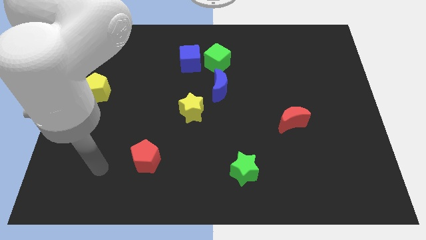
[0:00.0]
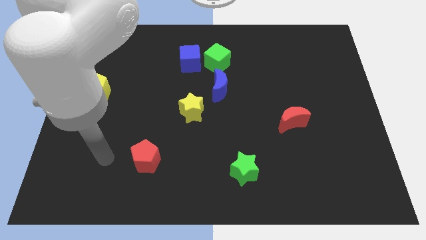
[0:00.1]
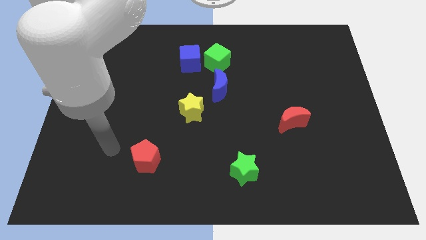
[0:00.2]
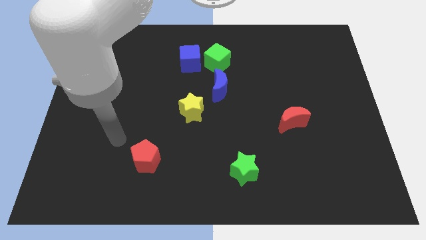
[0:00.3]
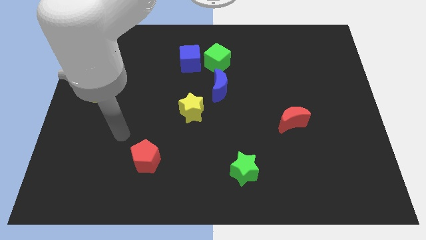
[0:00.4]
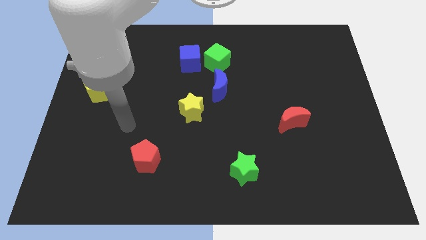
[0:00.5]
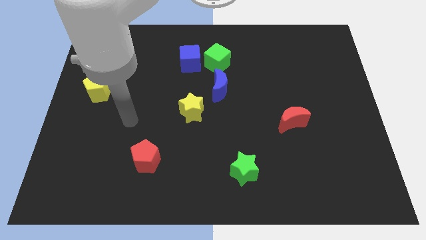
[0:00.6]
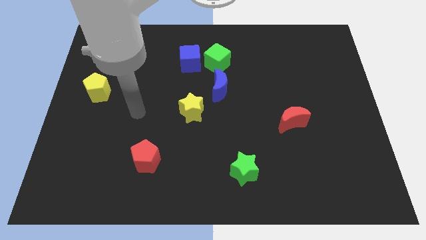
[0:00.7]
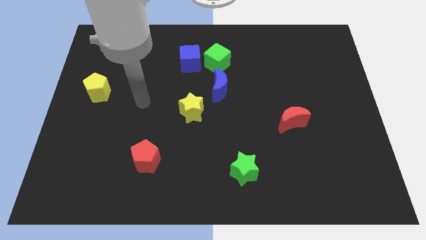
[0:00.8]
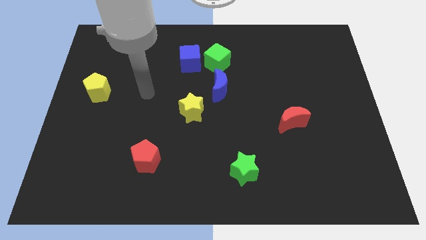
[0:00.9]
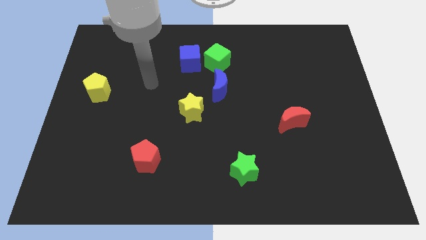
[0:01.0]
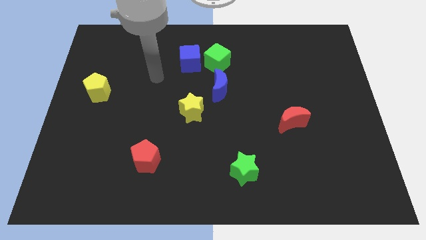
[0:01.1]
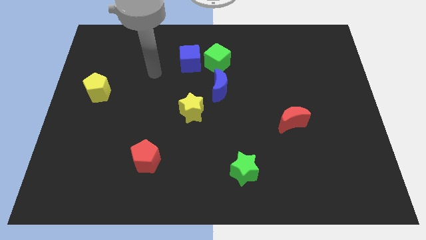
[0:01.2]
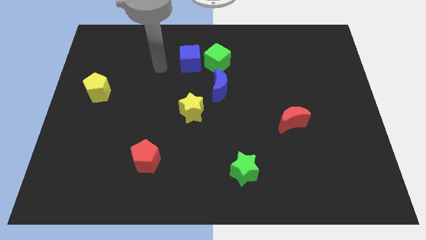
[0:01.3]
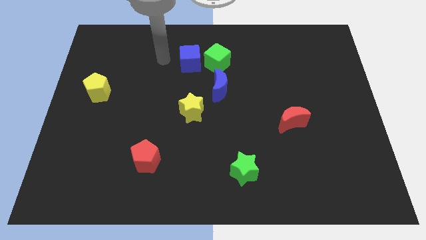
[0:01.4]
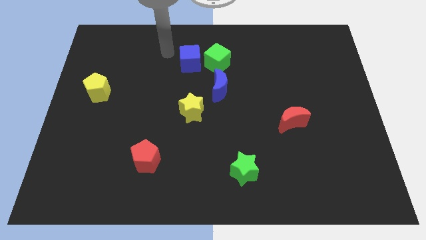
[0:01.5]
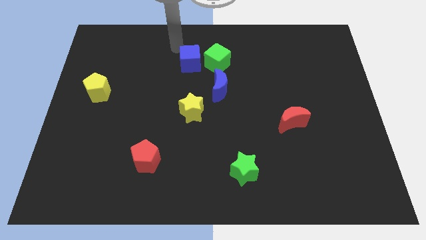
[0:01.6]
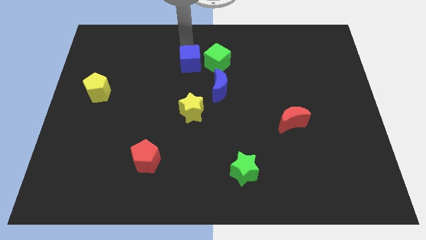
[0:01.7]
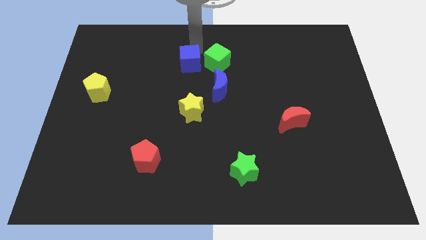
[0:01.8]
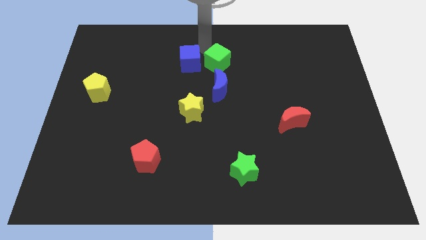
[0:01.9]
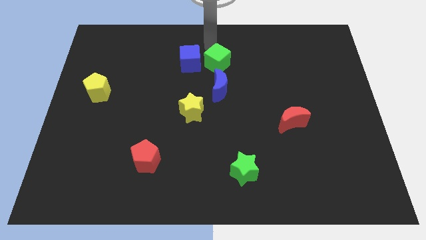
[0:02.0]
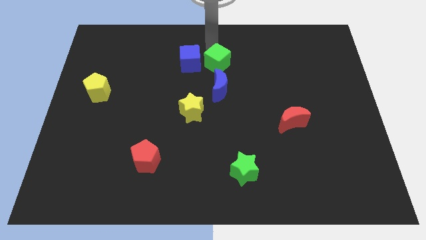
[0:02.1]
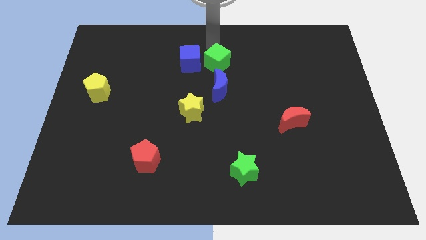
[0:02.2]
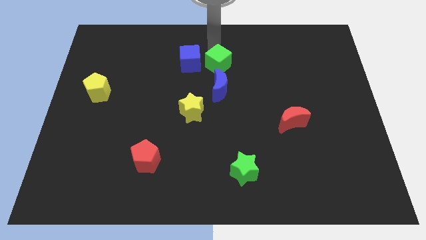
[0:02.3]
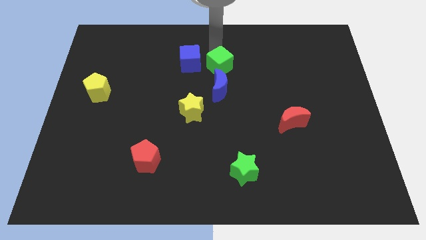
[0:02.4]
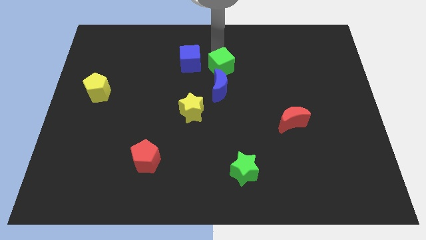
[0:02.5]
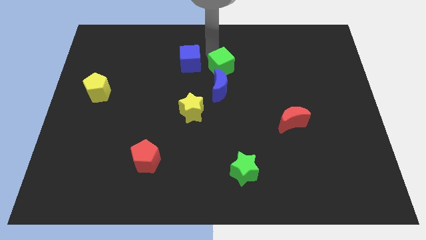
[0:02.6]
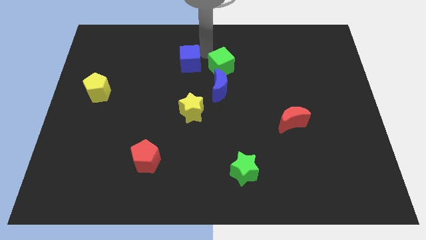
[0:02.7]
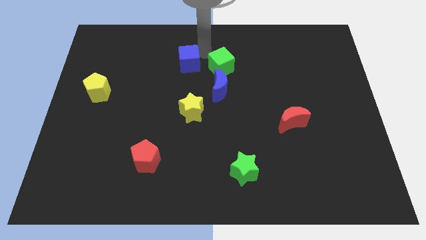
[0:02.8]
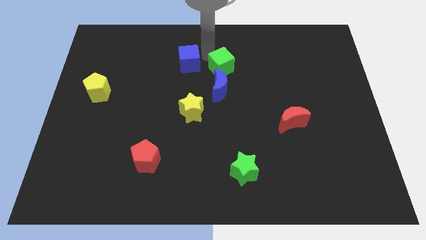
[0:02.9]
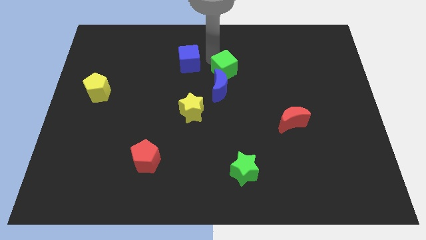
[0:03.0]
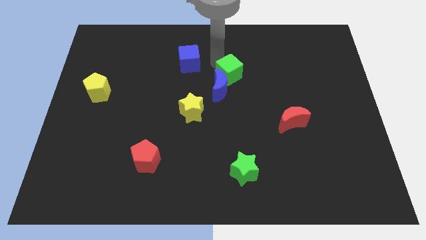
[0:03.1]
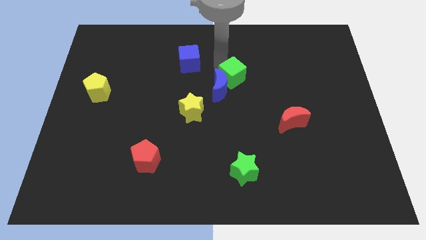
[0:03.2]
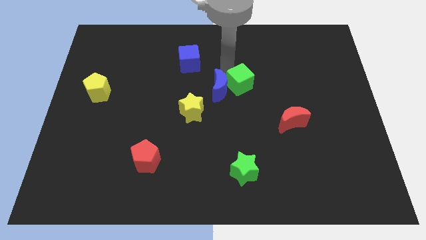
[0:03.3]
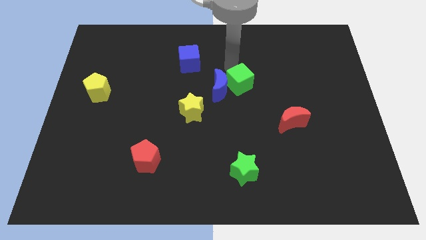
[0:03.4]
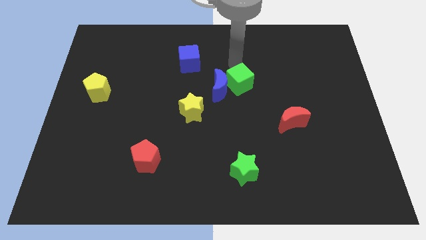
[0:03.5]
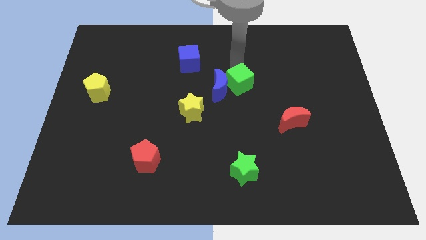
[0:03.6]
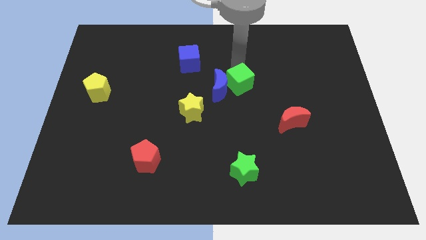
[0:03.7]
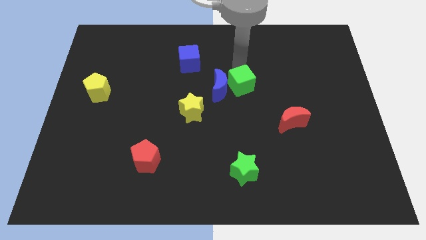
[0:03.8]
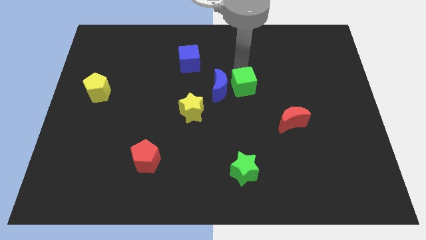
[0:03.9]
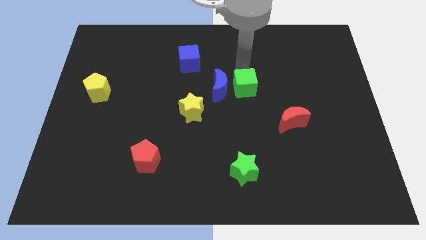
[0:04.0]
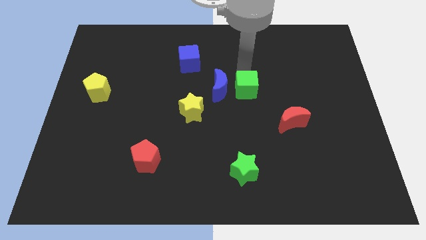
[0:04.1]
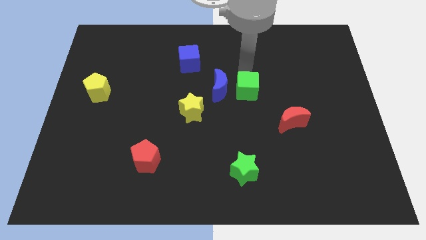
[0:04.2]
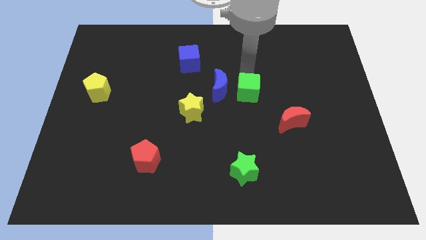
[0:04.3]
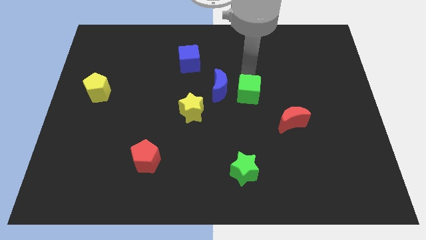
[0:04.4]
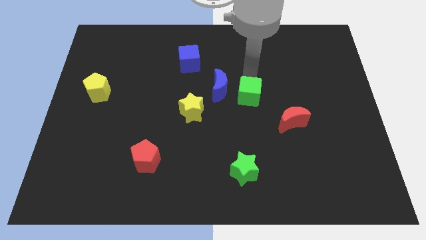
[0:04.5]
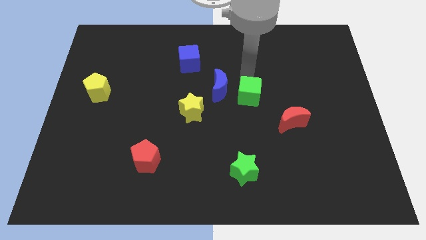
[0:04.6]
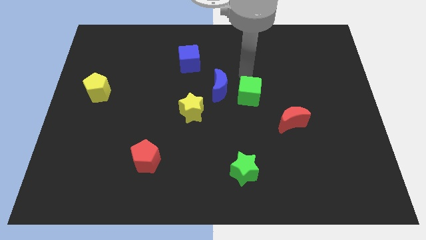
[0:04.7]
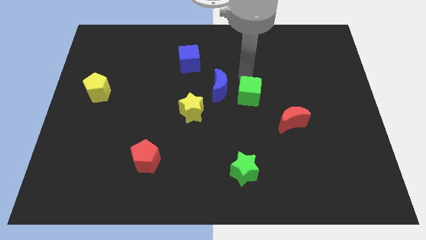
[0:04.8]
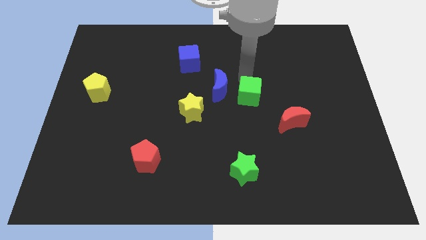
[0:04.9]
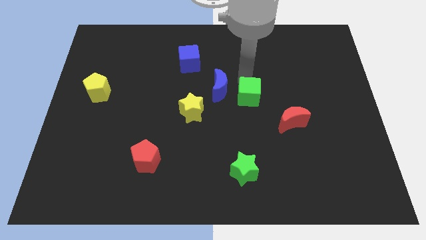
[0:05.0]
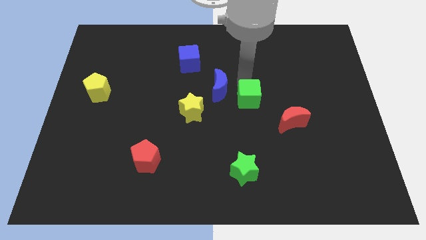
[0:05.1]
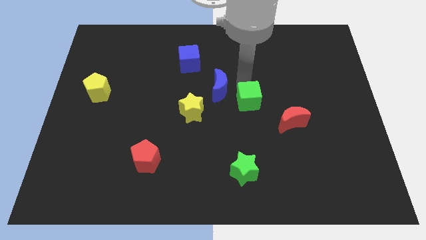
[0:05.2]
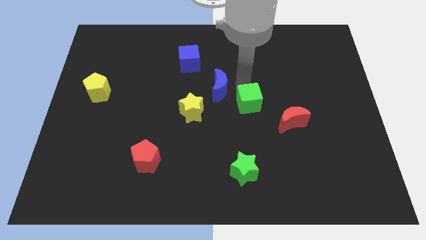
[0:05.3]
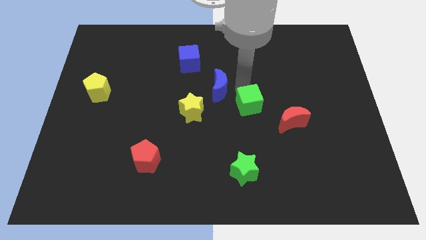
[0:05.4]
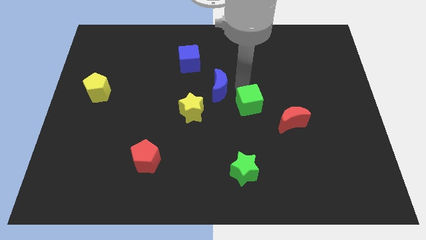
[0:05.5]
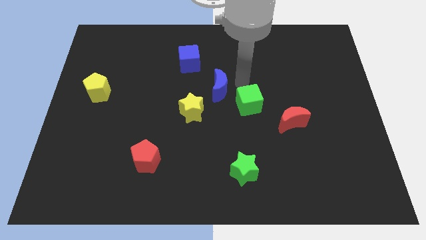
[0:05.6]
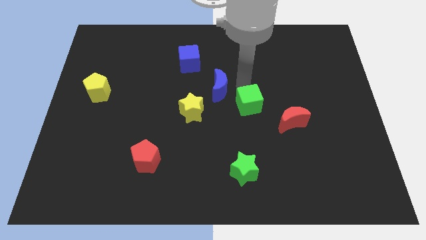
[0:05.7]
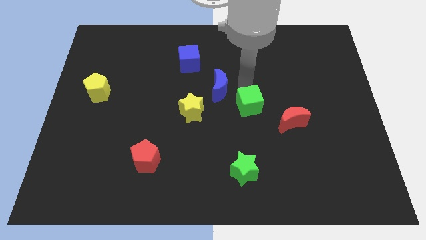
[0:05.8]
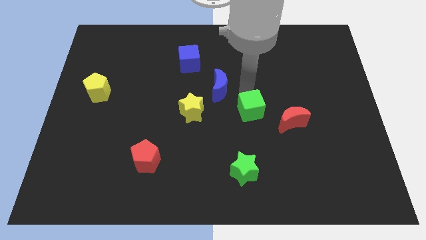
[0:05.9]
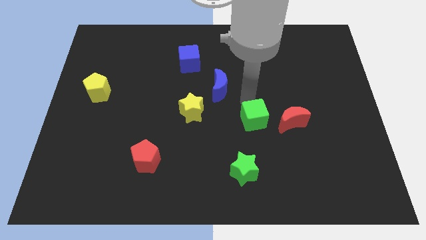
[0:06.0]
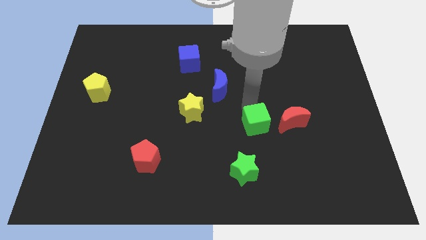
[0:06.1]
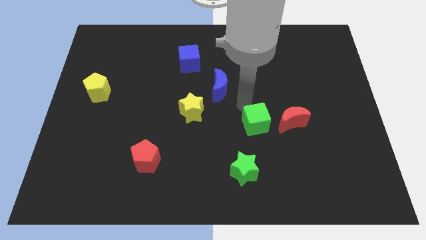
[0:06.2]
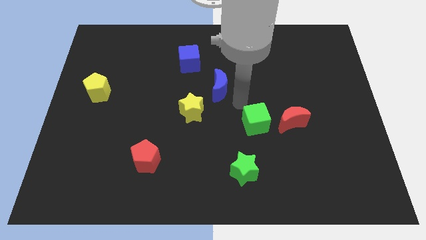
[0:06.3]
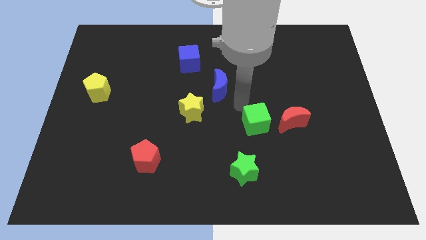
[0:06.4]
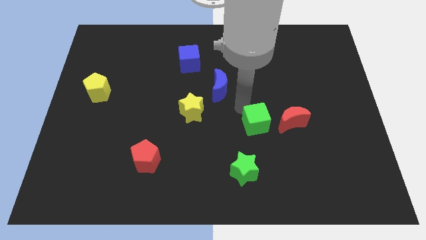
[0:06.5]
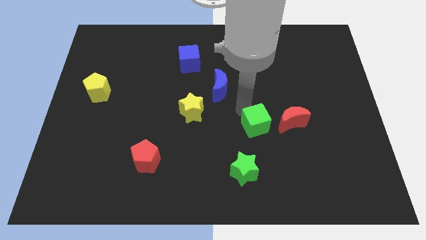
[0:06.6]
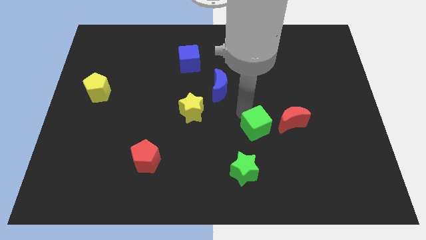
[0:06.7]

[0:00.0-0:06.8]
slide the green cube to the bottom left side of the red moon

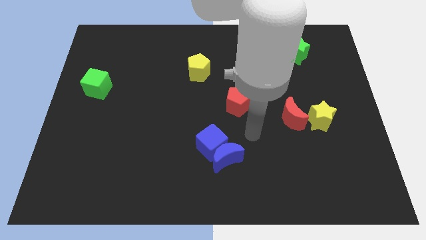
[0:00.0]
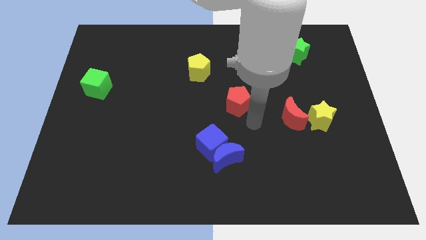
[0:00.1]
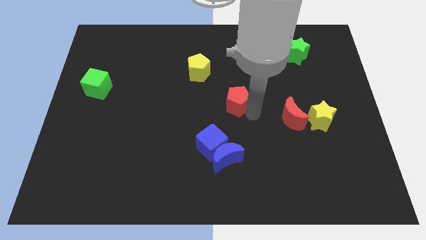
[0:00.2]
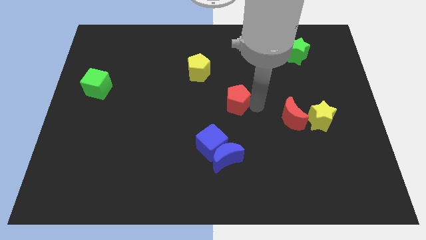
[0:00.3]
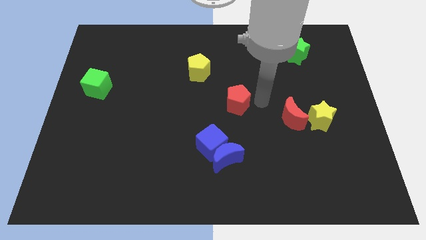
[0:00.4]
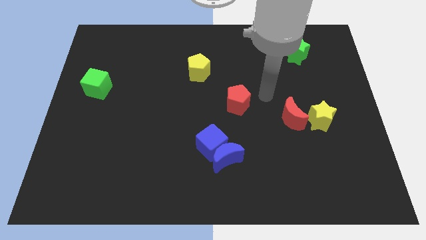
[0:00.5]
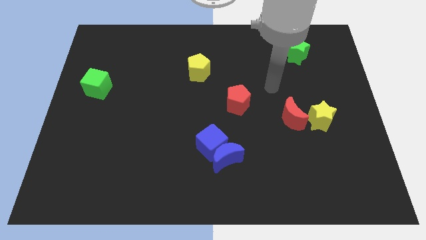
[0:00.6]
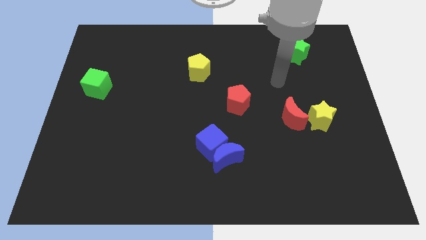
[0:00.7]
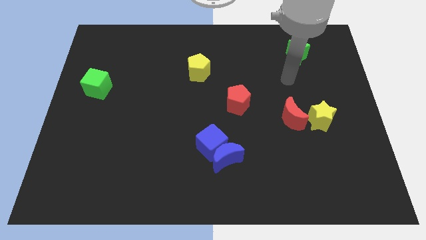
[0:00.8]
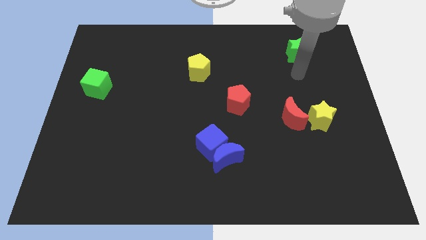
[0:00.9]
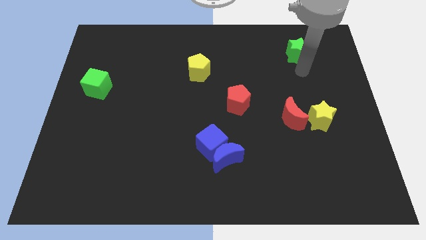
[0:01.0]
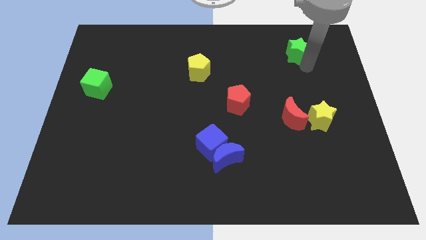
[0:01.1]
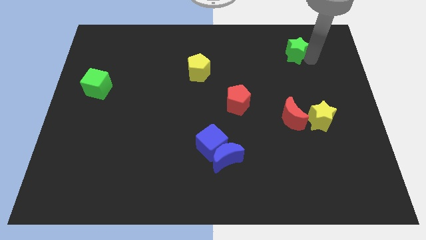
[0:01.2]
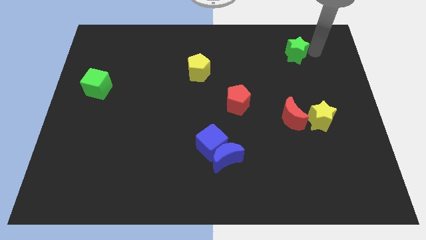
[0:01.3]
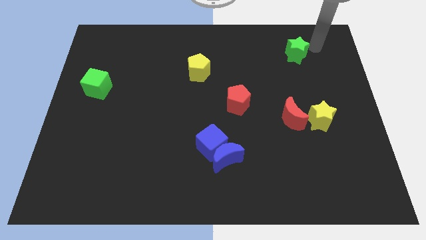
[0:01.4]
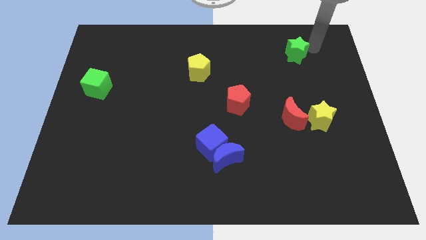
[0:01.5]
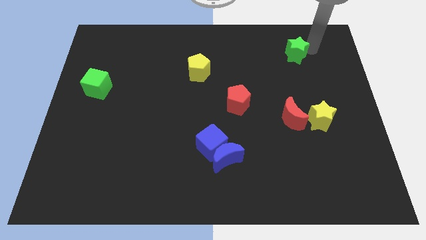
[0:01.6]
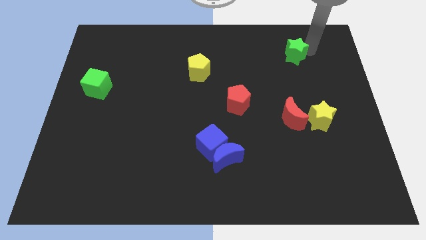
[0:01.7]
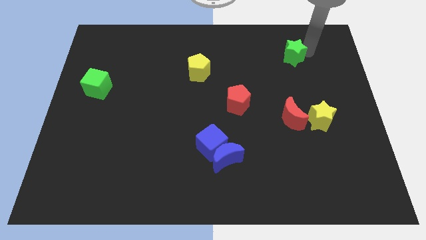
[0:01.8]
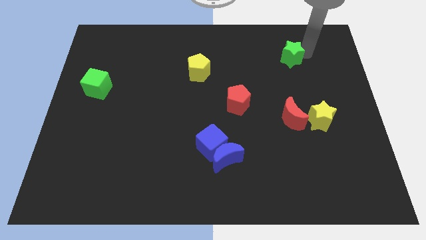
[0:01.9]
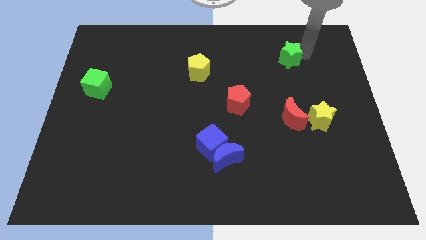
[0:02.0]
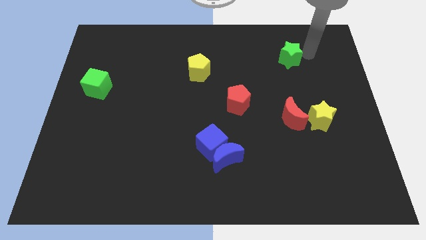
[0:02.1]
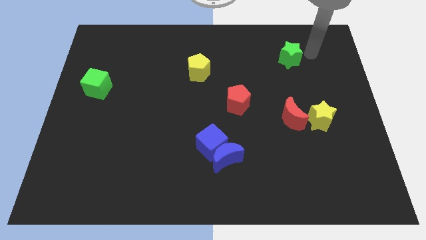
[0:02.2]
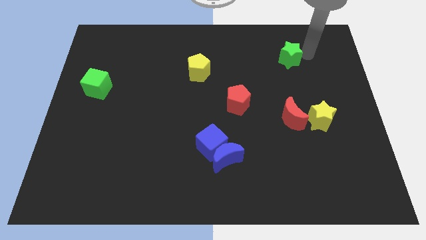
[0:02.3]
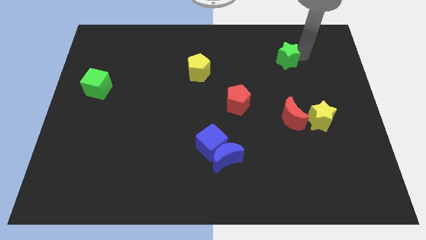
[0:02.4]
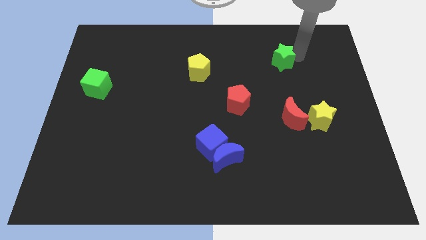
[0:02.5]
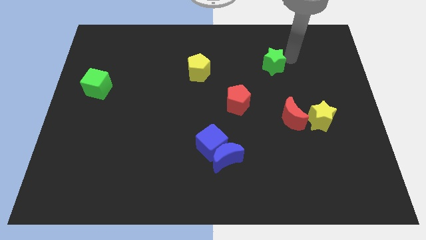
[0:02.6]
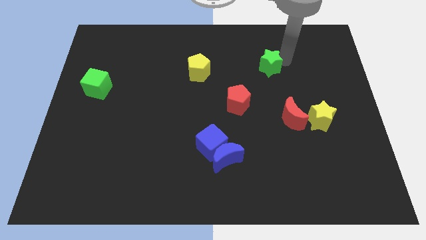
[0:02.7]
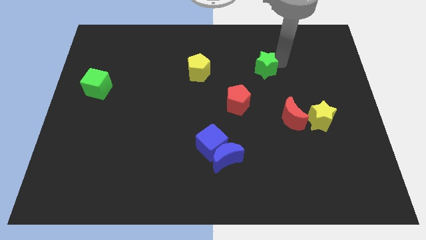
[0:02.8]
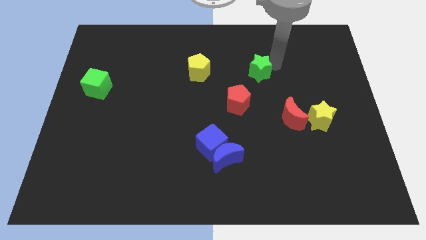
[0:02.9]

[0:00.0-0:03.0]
push the green star right of the yellow pentagon
